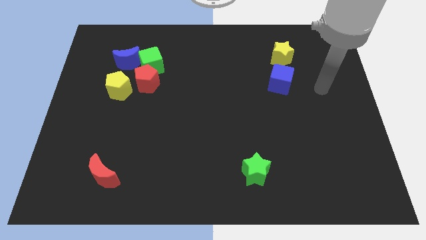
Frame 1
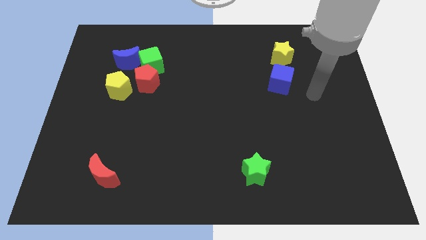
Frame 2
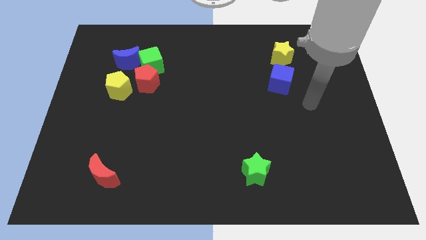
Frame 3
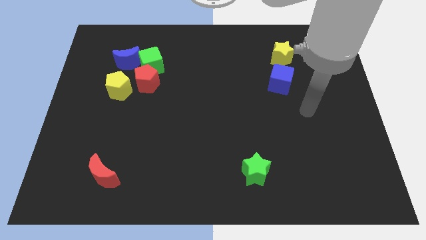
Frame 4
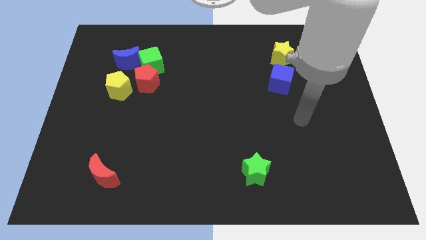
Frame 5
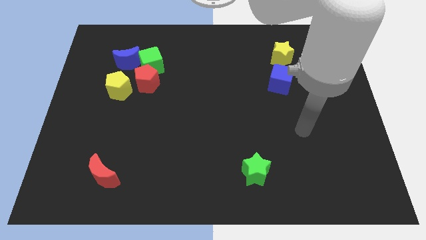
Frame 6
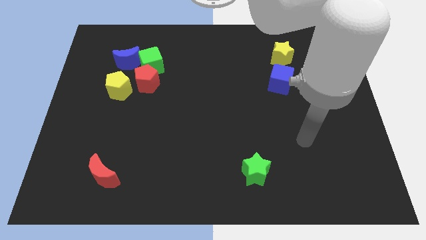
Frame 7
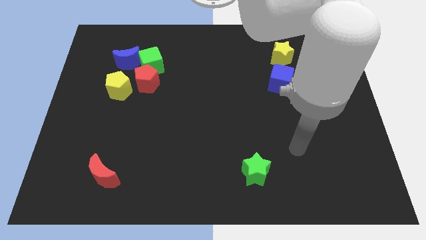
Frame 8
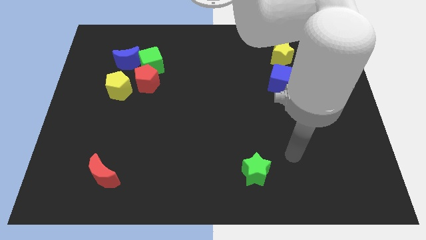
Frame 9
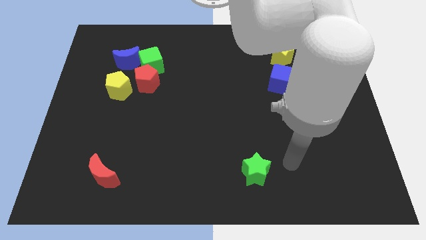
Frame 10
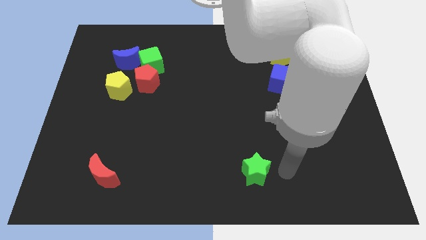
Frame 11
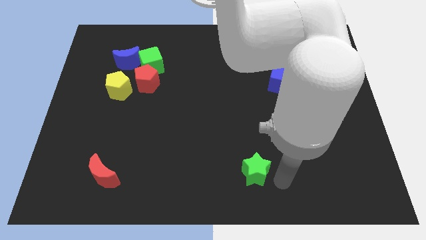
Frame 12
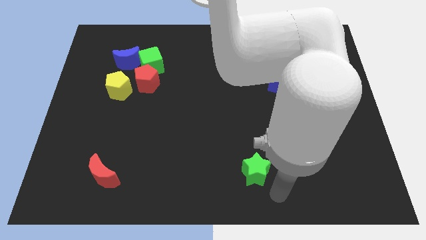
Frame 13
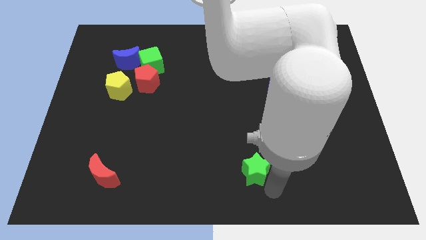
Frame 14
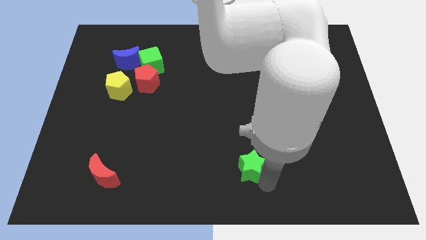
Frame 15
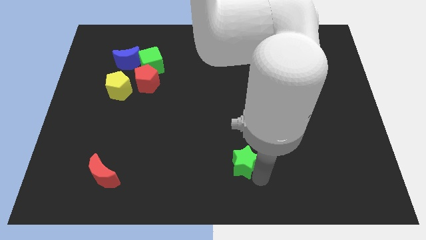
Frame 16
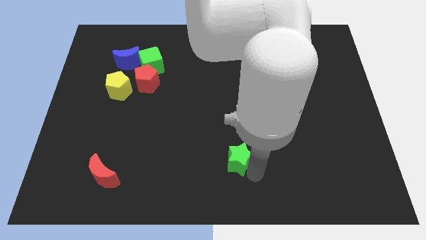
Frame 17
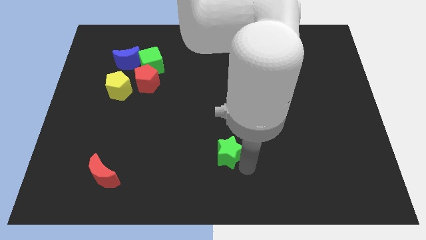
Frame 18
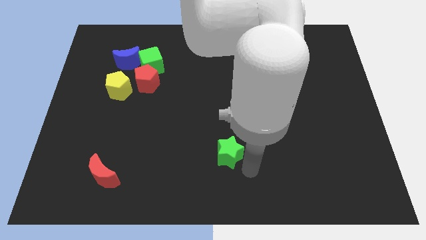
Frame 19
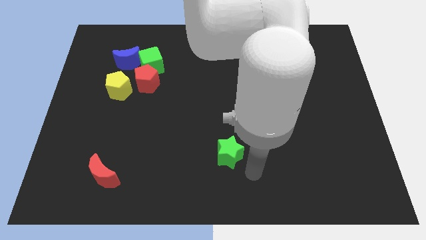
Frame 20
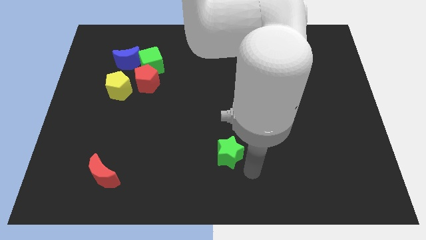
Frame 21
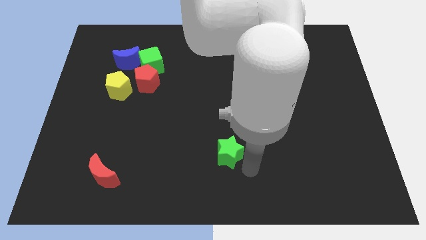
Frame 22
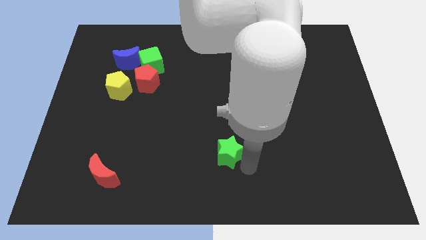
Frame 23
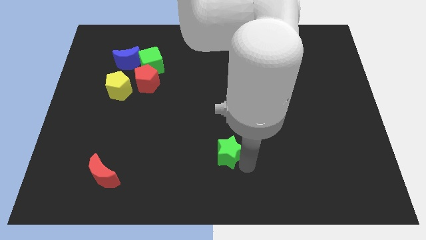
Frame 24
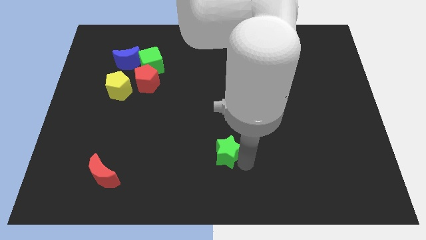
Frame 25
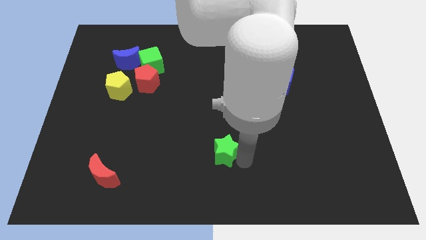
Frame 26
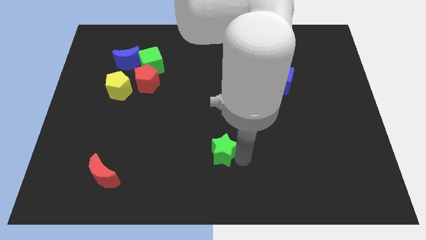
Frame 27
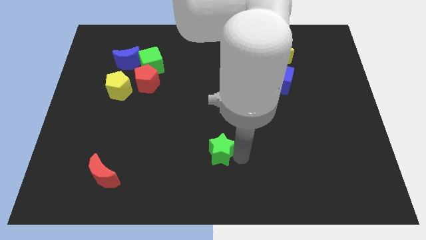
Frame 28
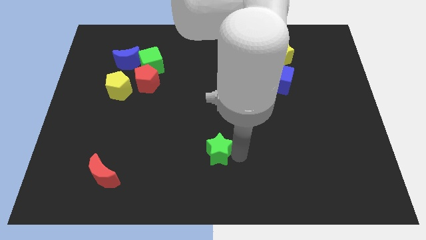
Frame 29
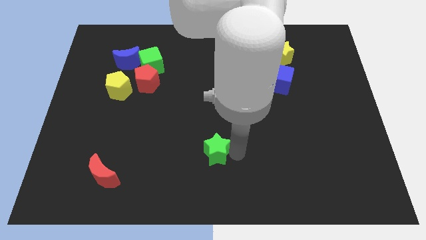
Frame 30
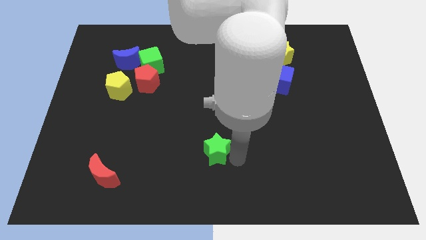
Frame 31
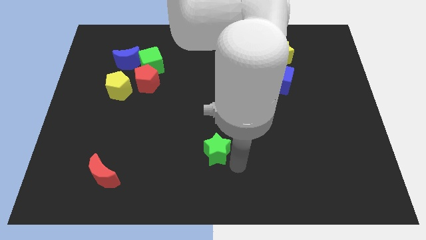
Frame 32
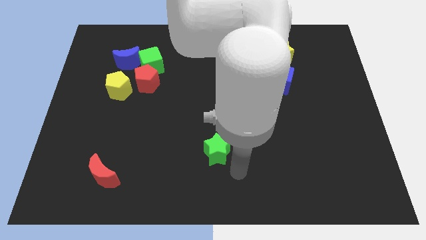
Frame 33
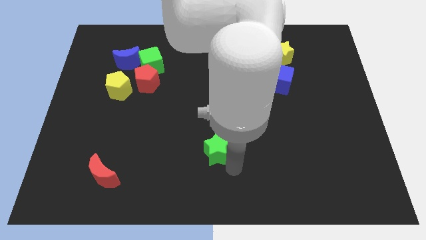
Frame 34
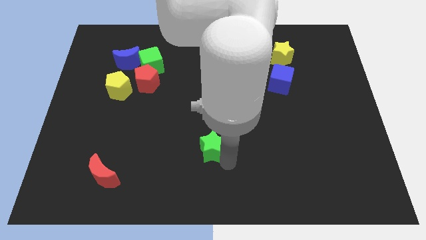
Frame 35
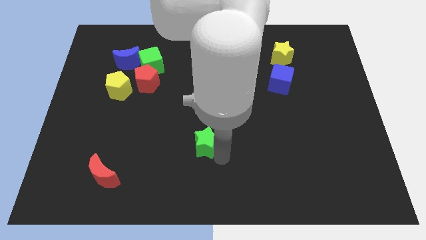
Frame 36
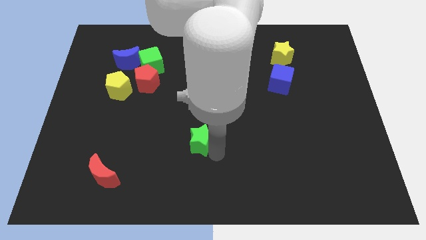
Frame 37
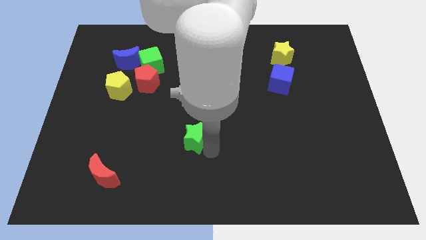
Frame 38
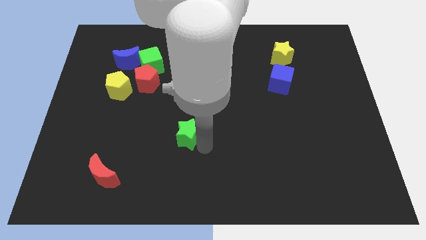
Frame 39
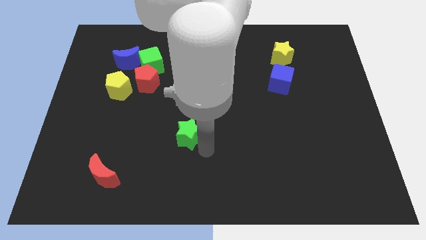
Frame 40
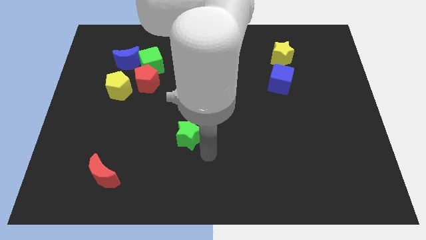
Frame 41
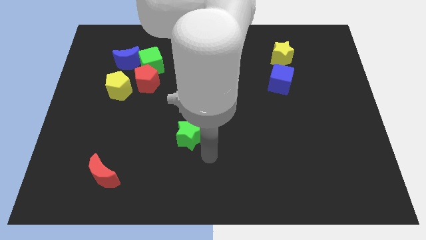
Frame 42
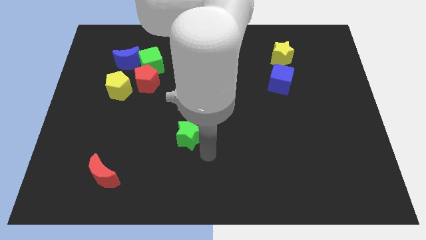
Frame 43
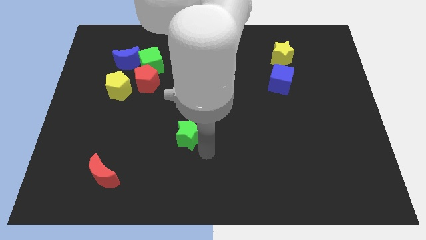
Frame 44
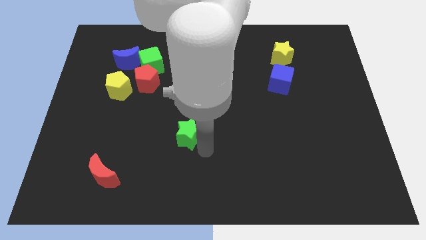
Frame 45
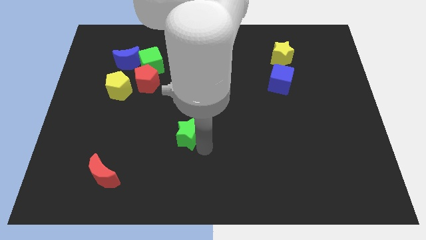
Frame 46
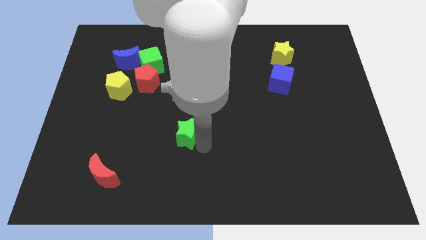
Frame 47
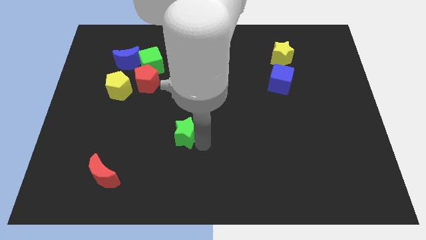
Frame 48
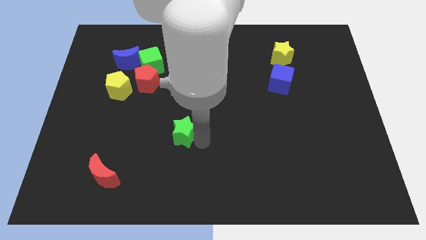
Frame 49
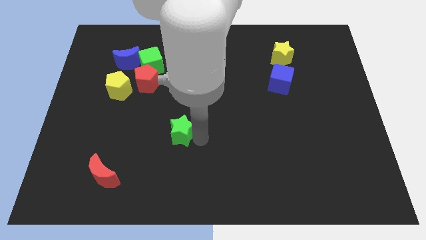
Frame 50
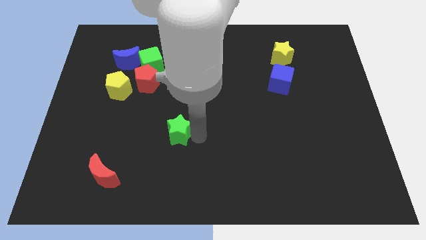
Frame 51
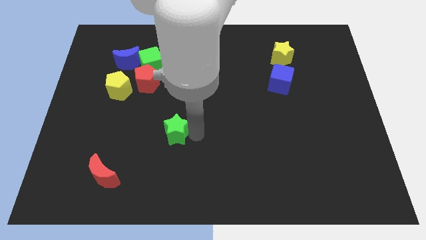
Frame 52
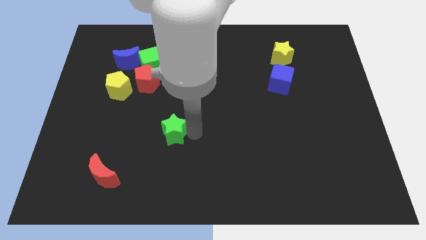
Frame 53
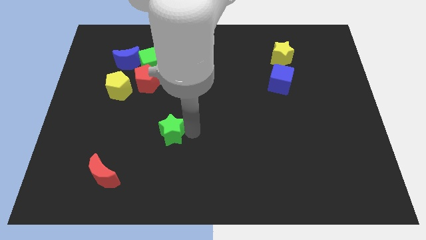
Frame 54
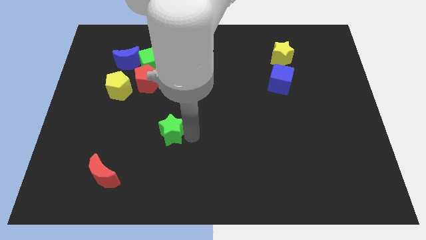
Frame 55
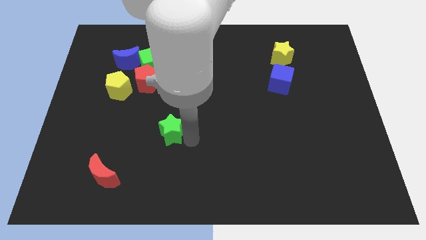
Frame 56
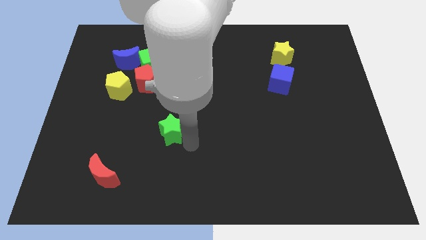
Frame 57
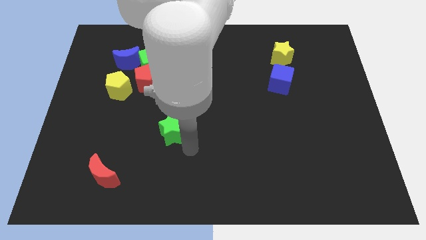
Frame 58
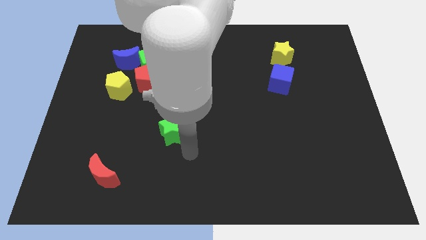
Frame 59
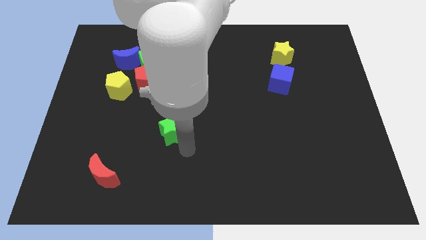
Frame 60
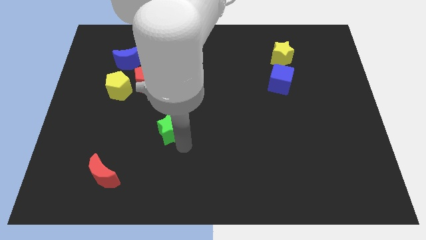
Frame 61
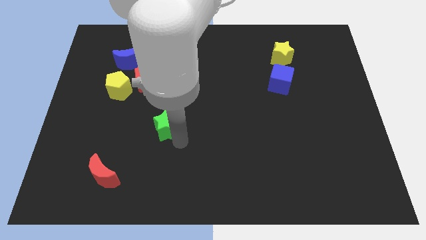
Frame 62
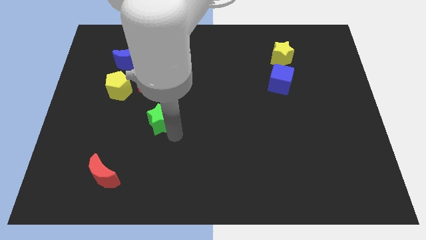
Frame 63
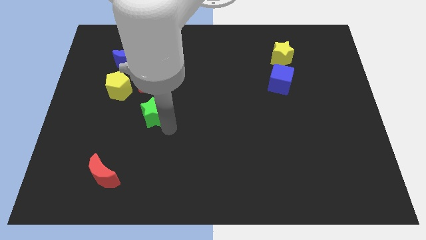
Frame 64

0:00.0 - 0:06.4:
push the green star to the bottom right of the yellow pentagon

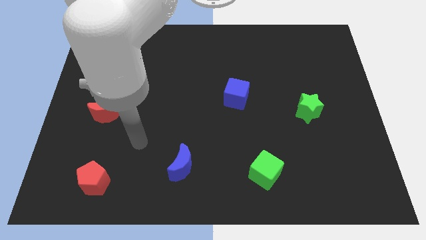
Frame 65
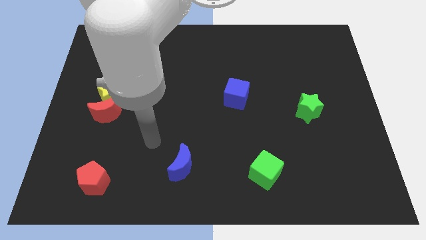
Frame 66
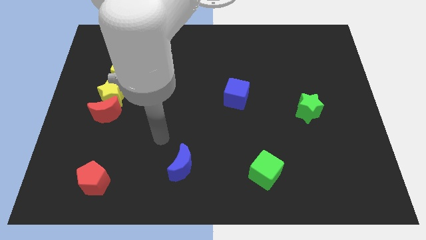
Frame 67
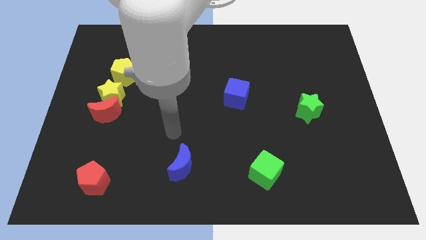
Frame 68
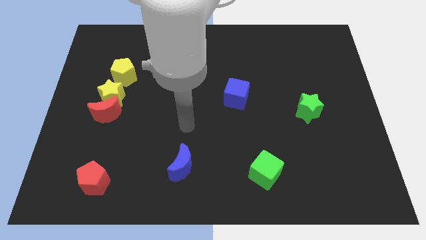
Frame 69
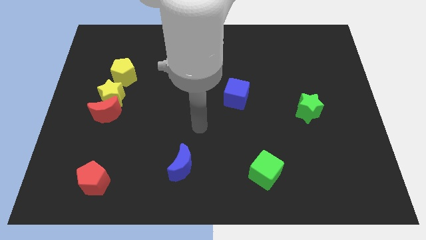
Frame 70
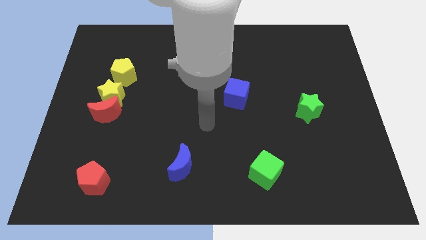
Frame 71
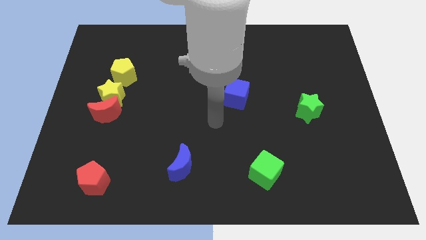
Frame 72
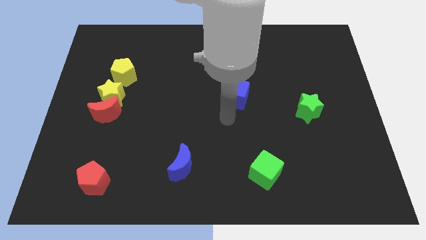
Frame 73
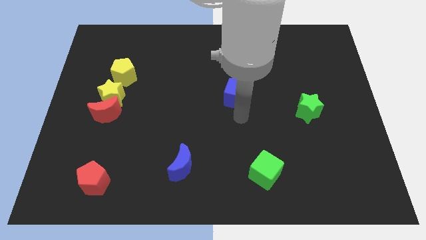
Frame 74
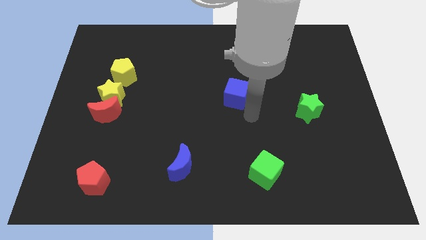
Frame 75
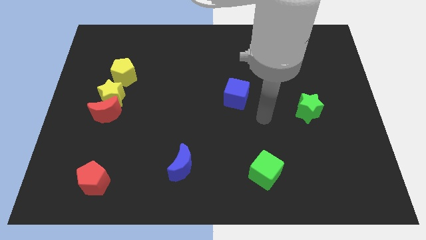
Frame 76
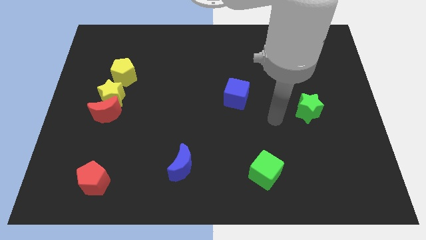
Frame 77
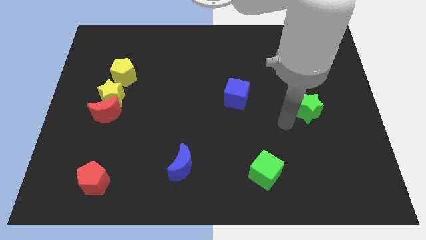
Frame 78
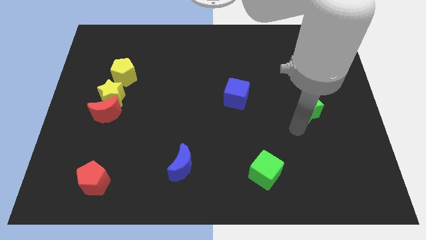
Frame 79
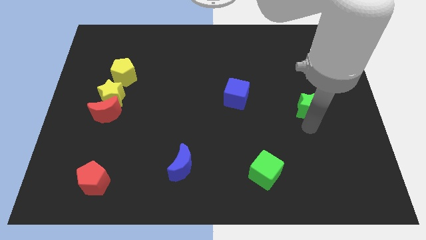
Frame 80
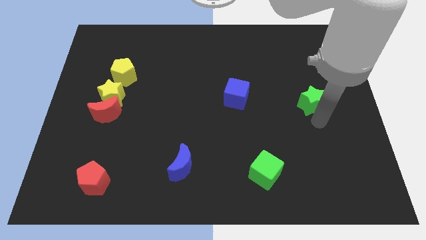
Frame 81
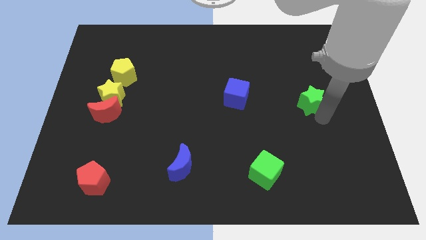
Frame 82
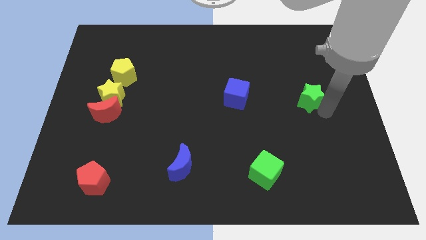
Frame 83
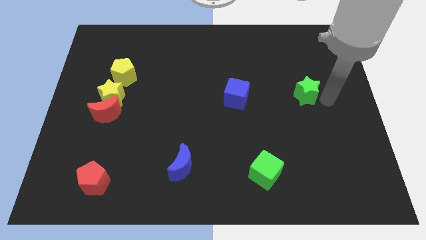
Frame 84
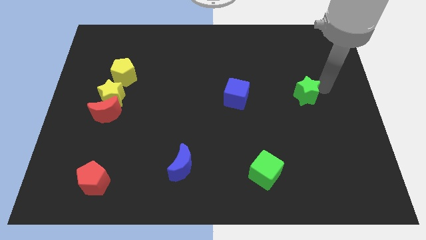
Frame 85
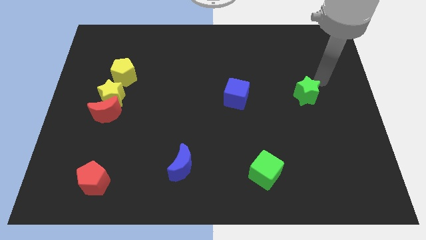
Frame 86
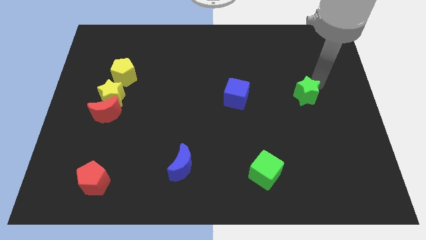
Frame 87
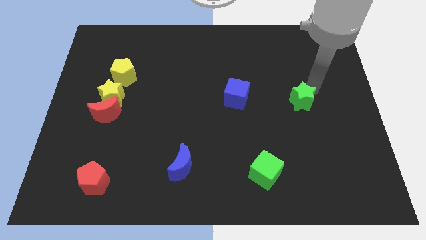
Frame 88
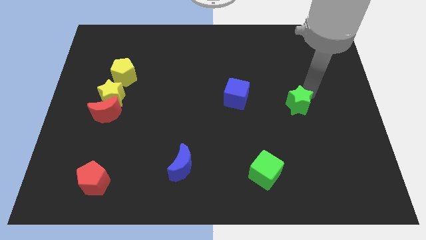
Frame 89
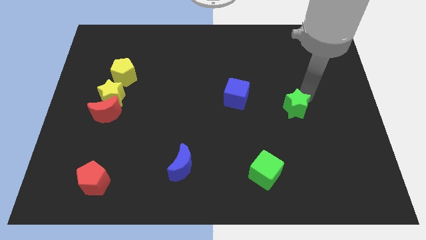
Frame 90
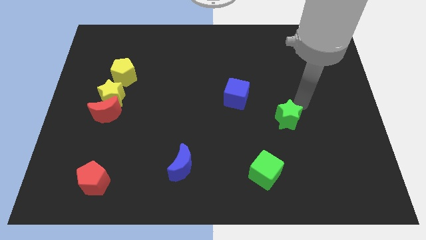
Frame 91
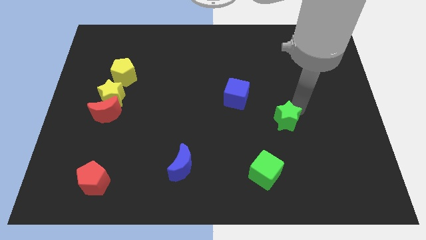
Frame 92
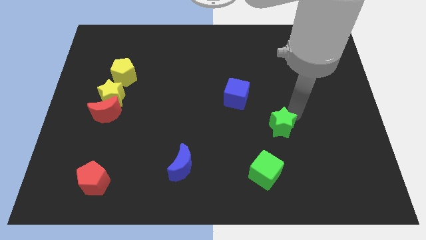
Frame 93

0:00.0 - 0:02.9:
move the green star above the green cube
